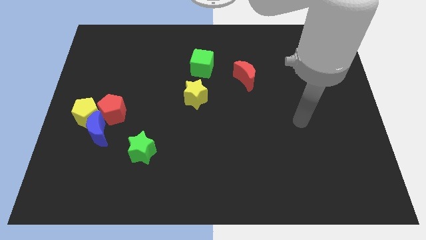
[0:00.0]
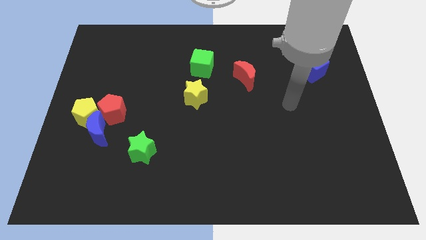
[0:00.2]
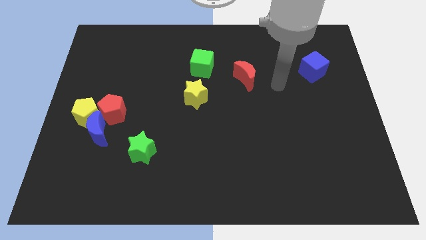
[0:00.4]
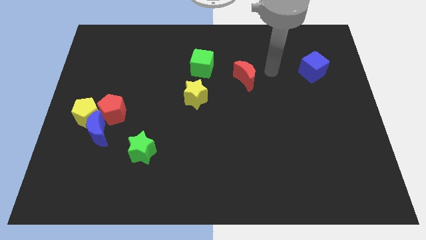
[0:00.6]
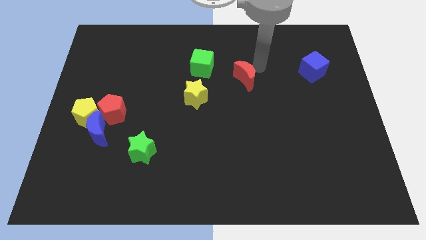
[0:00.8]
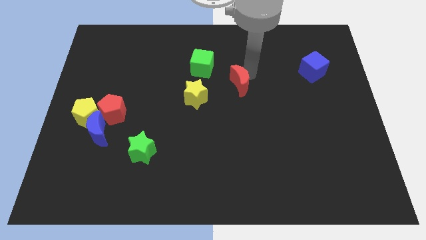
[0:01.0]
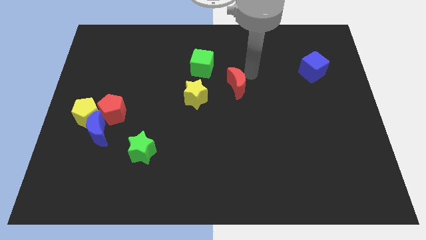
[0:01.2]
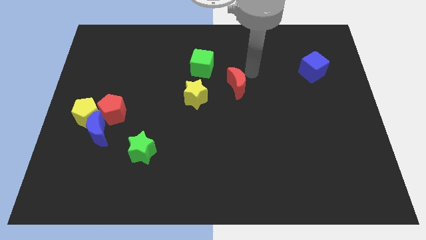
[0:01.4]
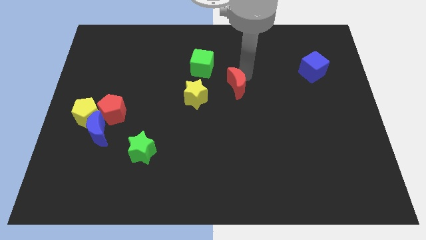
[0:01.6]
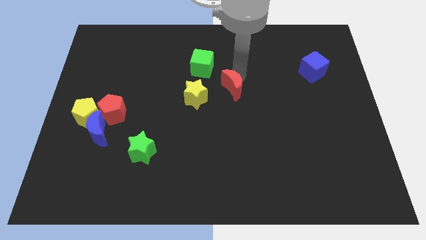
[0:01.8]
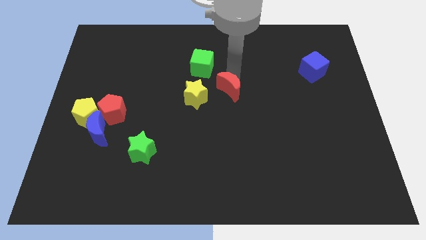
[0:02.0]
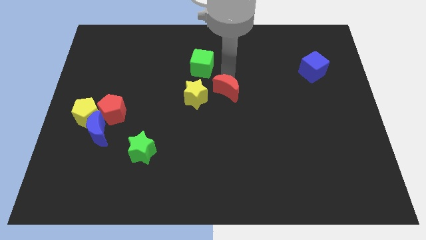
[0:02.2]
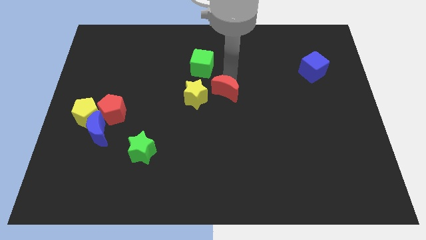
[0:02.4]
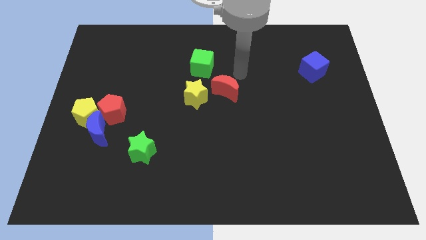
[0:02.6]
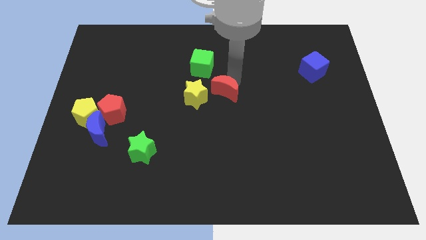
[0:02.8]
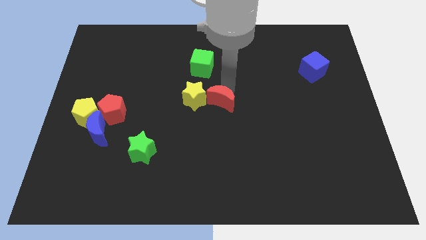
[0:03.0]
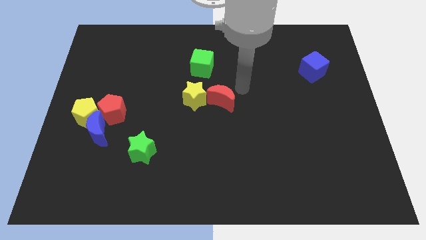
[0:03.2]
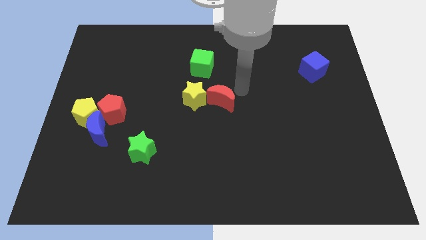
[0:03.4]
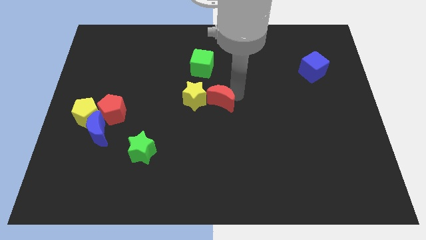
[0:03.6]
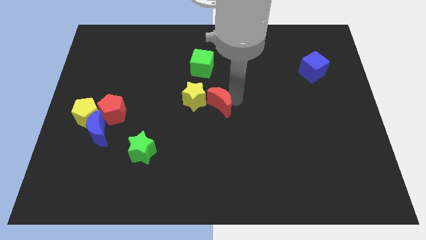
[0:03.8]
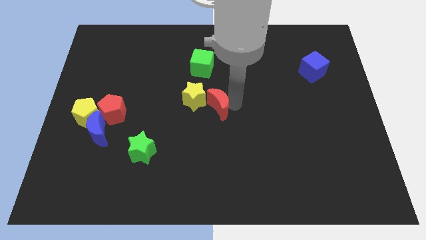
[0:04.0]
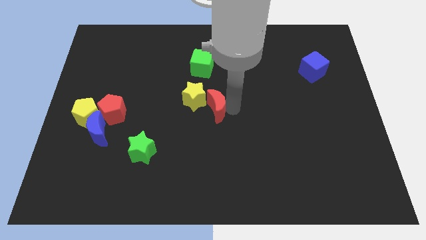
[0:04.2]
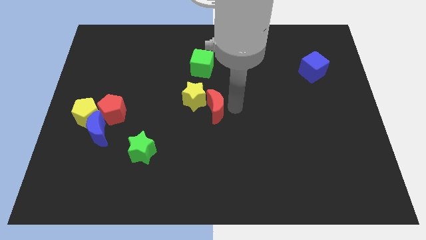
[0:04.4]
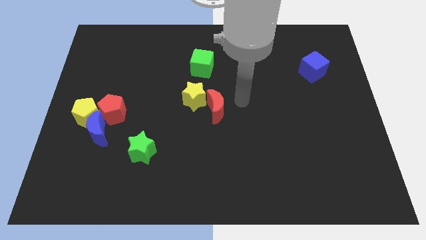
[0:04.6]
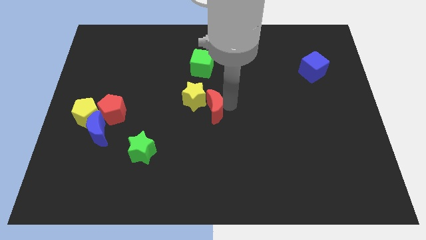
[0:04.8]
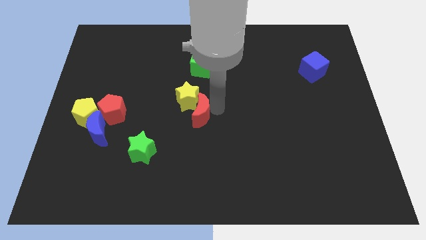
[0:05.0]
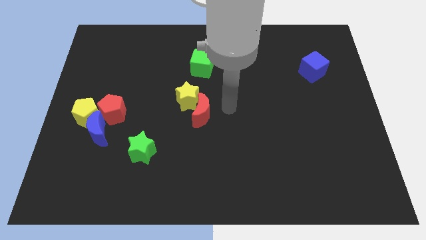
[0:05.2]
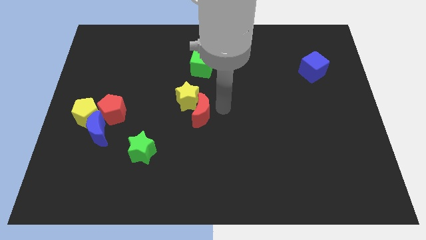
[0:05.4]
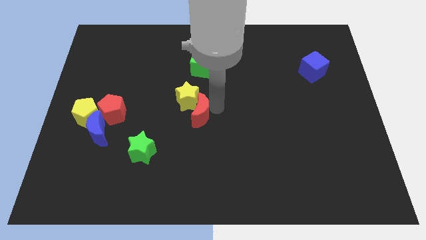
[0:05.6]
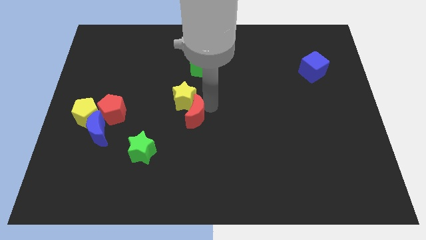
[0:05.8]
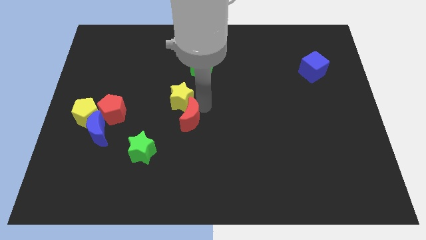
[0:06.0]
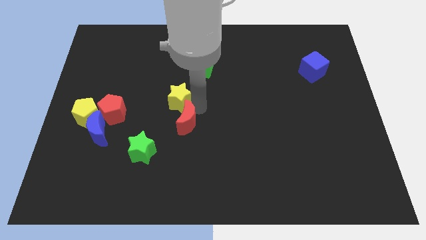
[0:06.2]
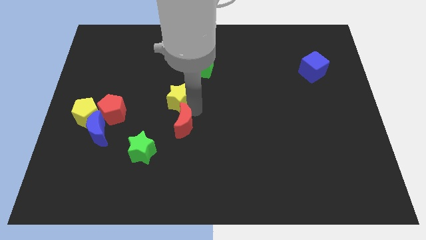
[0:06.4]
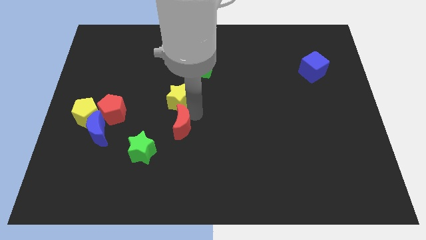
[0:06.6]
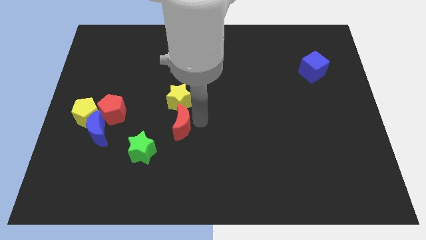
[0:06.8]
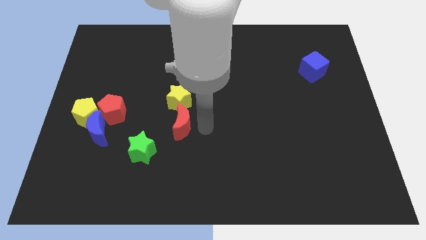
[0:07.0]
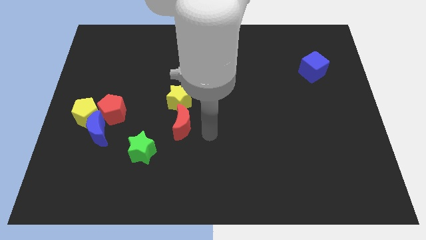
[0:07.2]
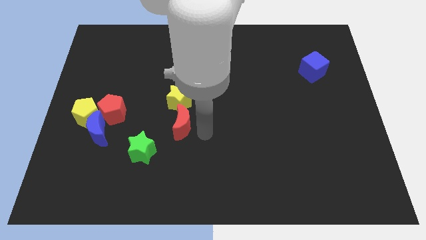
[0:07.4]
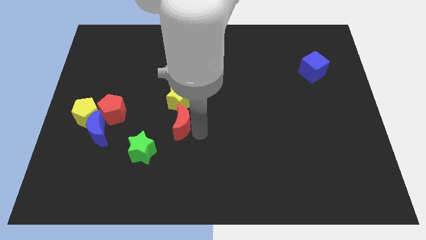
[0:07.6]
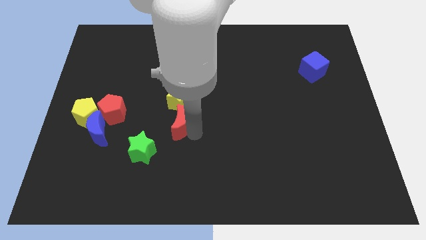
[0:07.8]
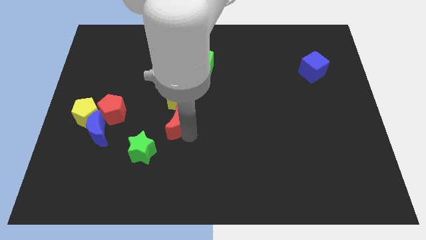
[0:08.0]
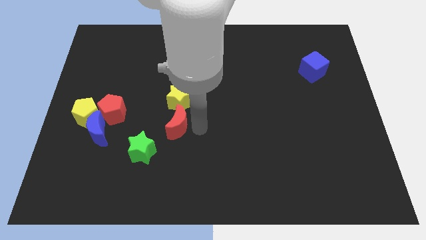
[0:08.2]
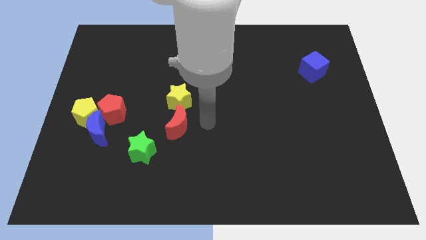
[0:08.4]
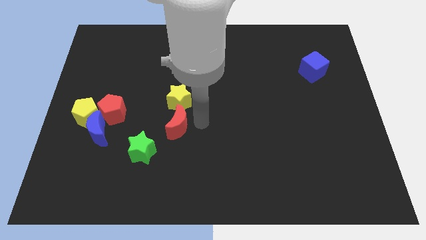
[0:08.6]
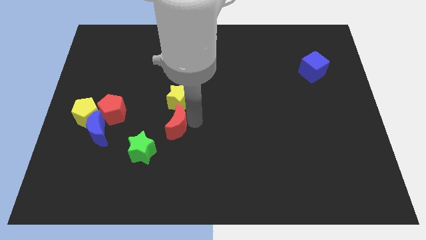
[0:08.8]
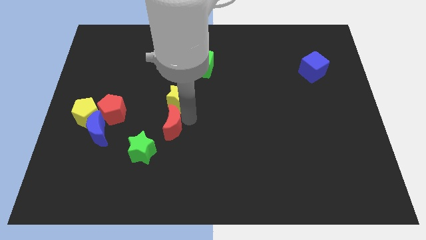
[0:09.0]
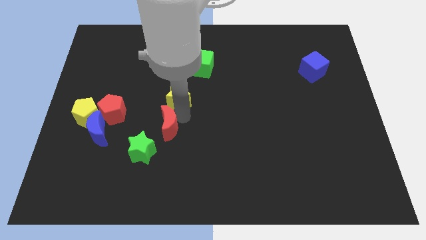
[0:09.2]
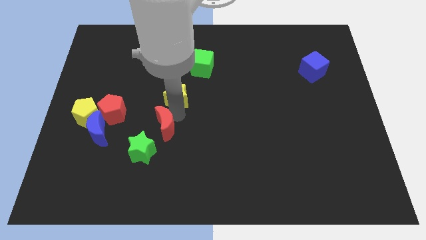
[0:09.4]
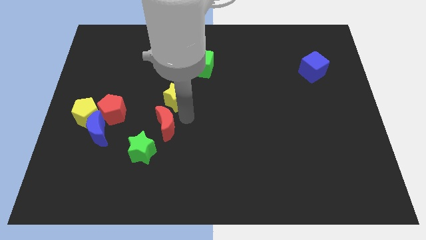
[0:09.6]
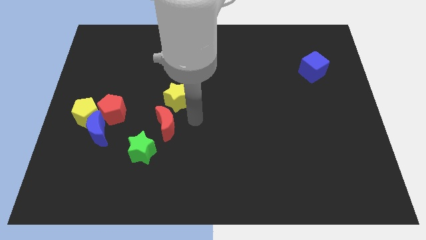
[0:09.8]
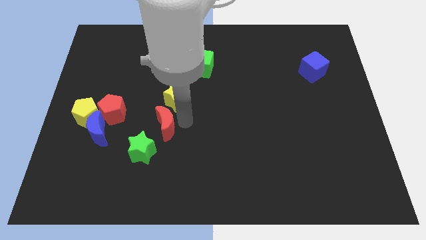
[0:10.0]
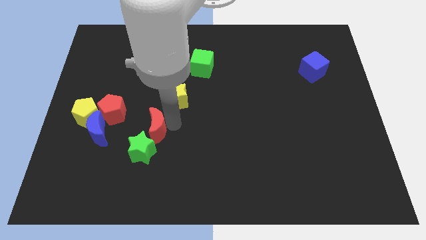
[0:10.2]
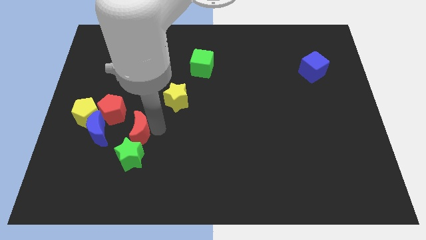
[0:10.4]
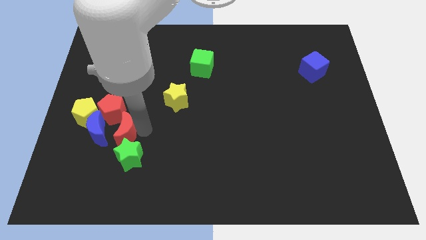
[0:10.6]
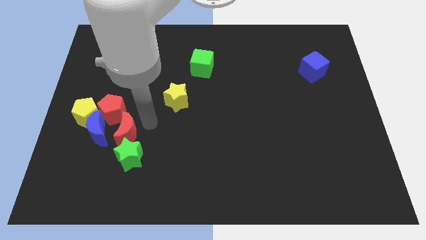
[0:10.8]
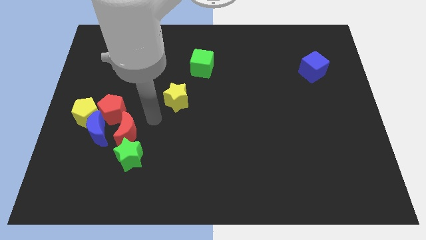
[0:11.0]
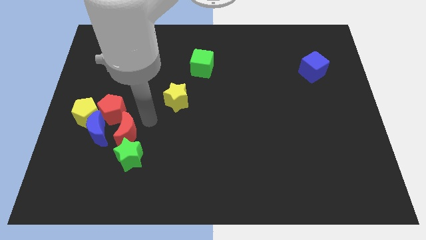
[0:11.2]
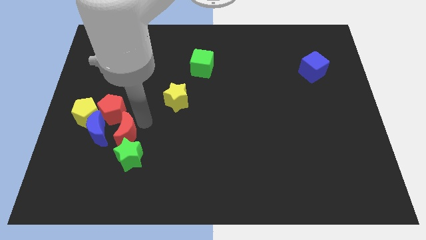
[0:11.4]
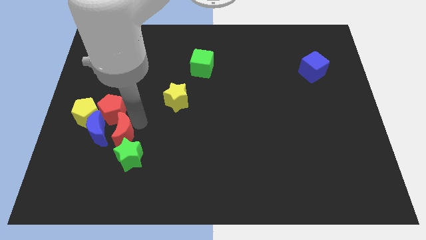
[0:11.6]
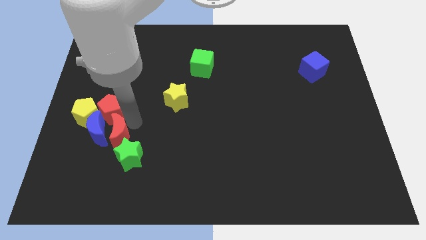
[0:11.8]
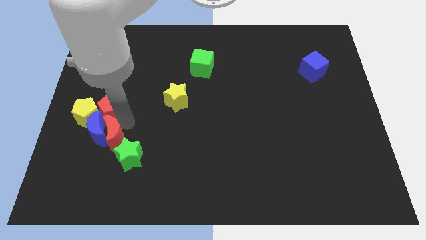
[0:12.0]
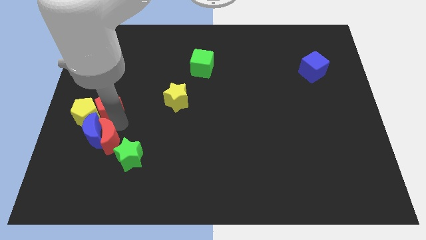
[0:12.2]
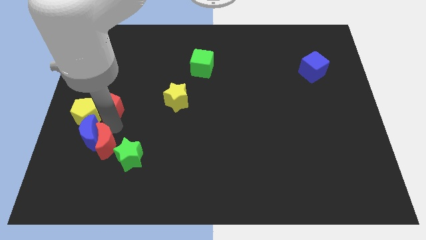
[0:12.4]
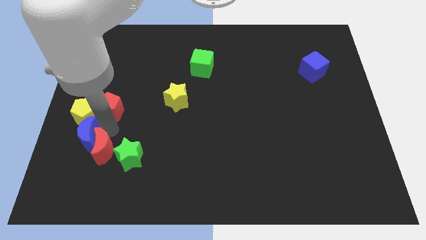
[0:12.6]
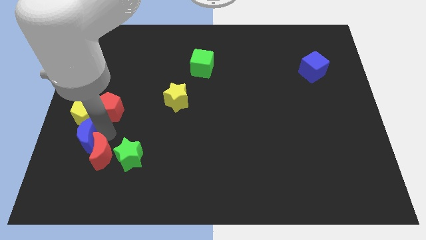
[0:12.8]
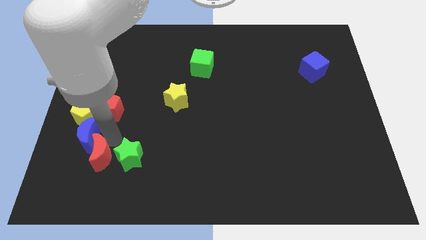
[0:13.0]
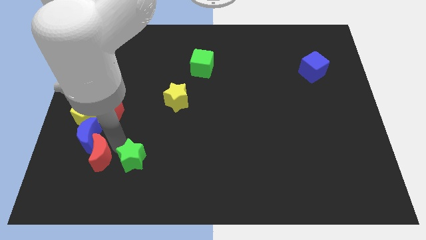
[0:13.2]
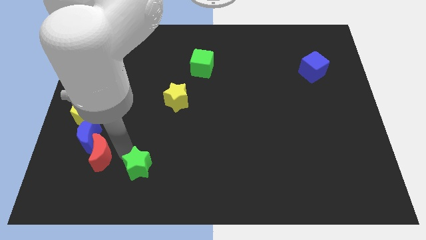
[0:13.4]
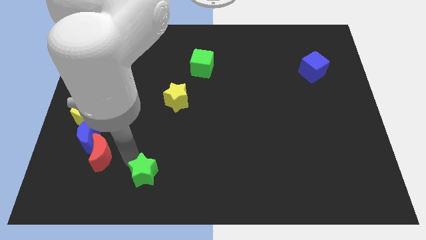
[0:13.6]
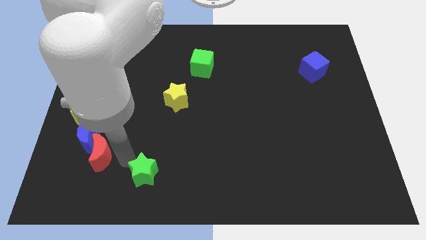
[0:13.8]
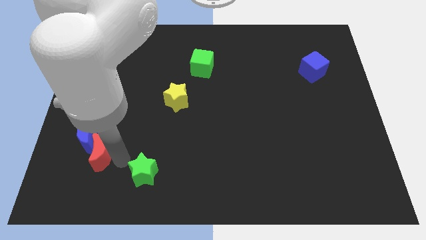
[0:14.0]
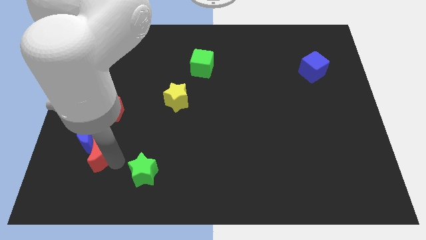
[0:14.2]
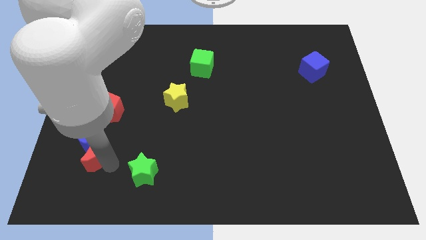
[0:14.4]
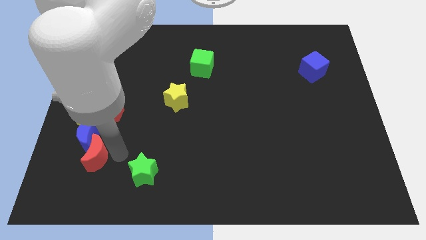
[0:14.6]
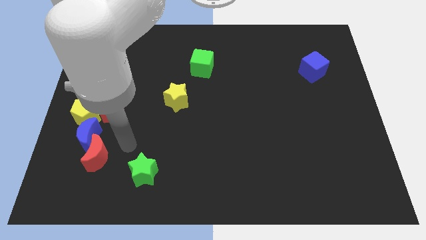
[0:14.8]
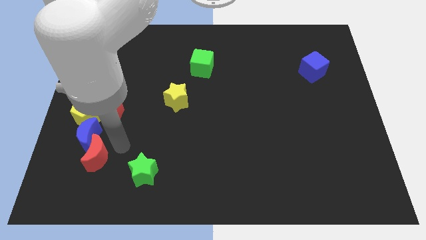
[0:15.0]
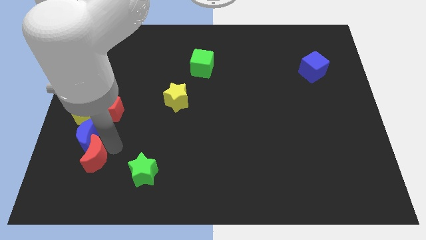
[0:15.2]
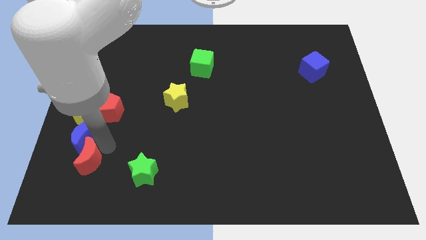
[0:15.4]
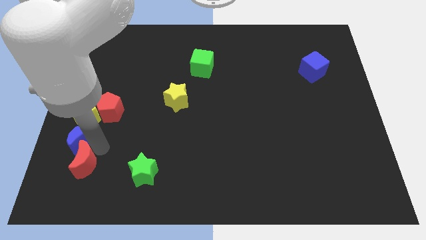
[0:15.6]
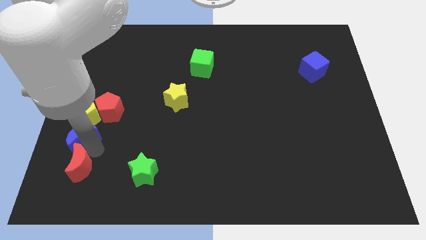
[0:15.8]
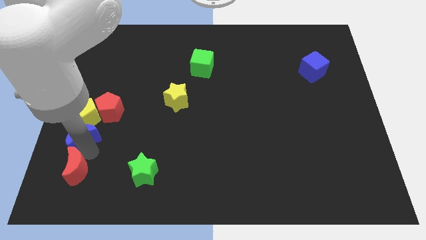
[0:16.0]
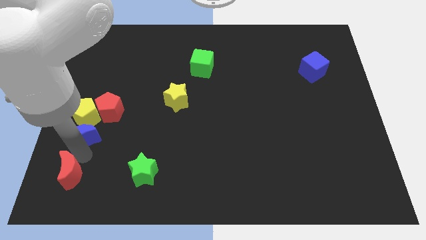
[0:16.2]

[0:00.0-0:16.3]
push the red moon to the bottom left of the board
